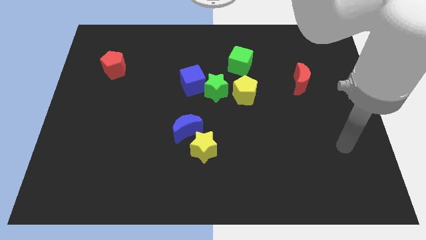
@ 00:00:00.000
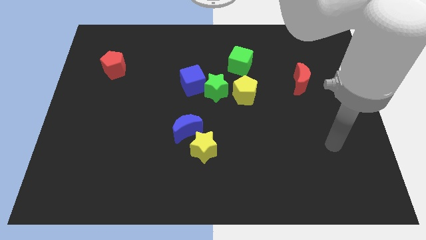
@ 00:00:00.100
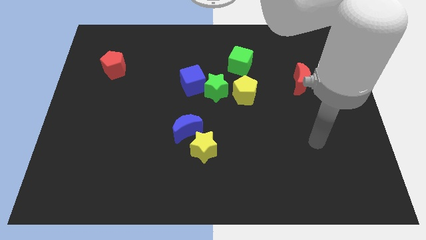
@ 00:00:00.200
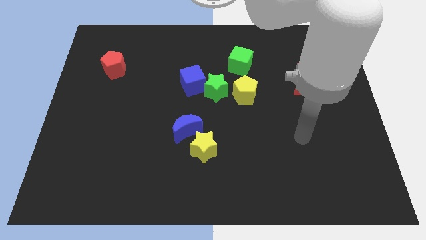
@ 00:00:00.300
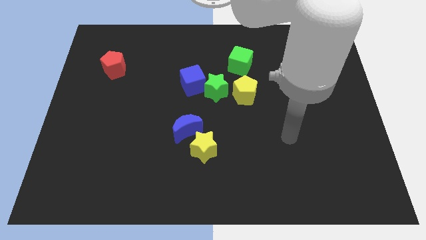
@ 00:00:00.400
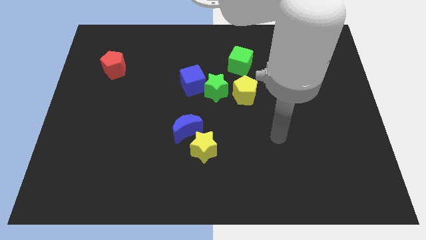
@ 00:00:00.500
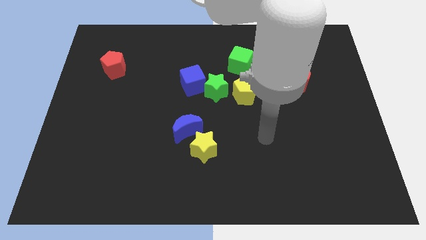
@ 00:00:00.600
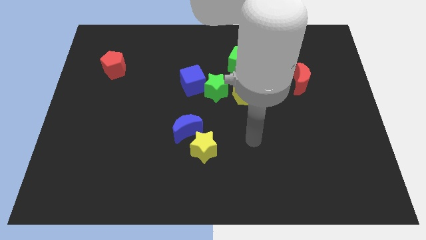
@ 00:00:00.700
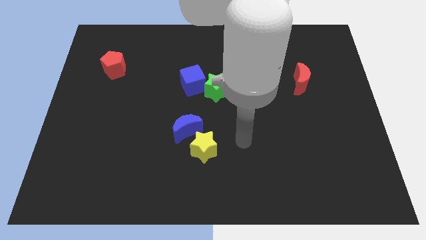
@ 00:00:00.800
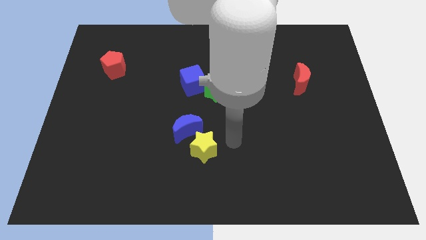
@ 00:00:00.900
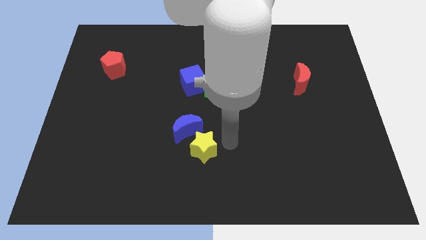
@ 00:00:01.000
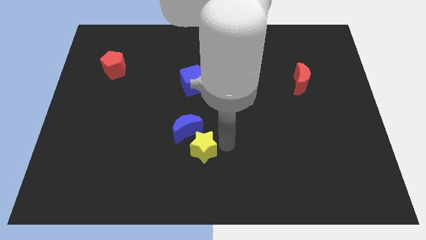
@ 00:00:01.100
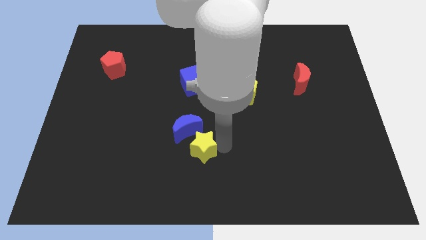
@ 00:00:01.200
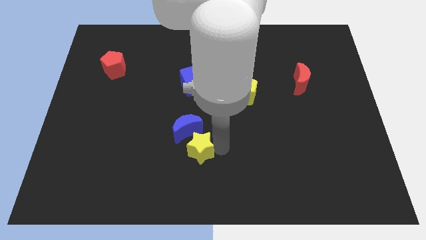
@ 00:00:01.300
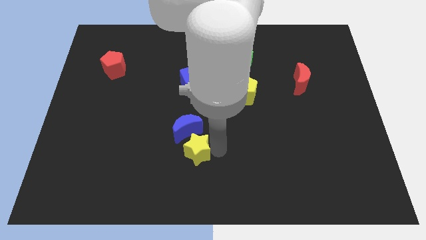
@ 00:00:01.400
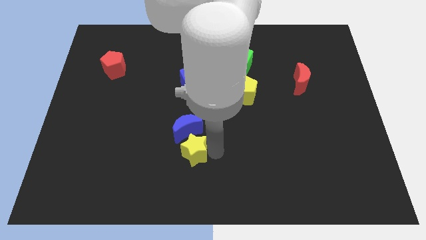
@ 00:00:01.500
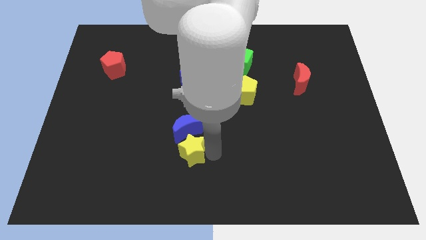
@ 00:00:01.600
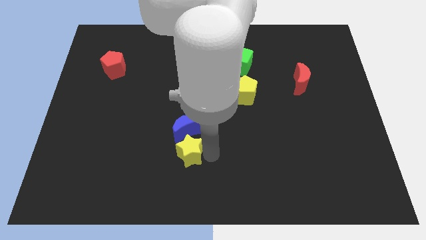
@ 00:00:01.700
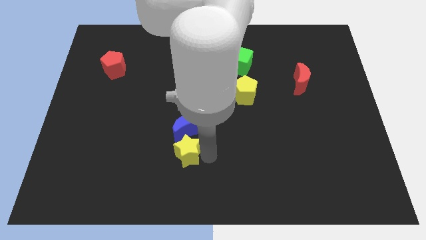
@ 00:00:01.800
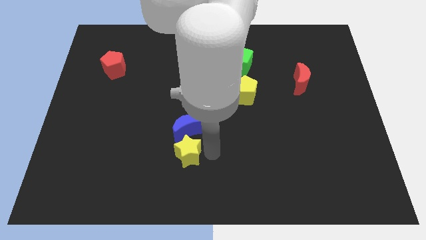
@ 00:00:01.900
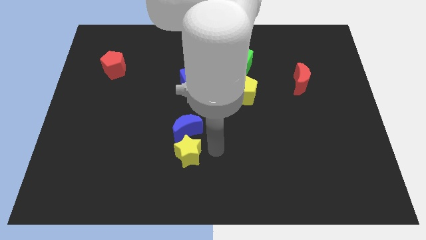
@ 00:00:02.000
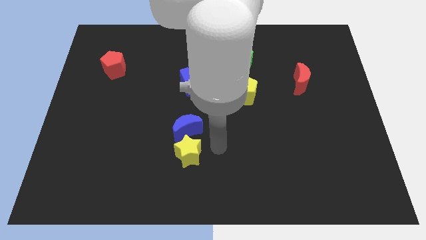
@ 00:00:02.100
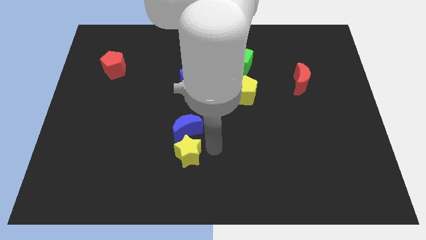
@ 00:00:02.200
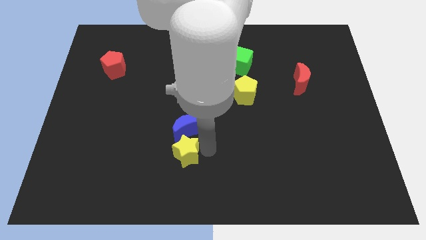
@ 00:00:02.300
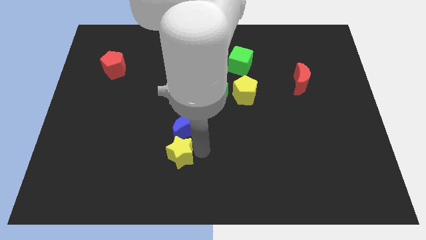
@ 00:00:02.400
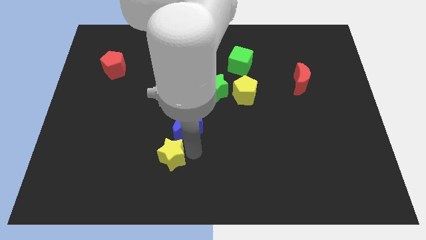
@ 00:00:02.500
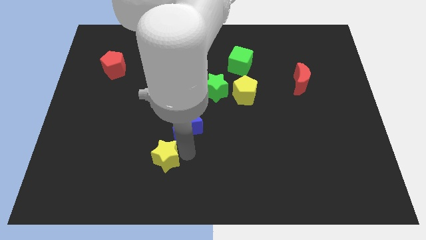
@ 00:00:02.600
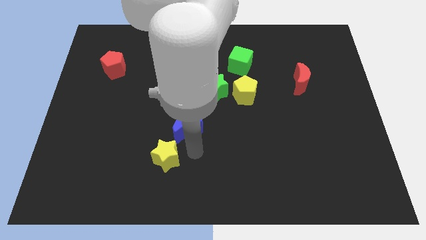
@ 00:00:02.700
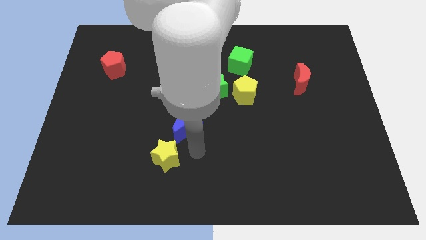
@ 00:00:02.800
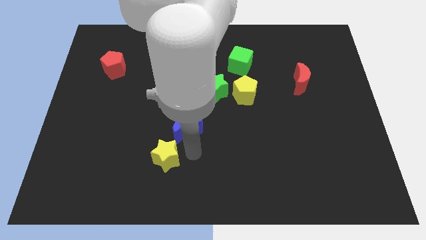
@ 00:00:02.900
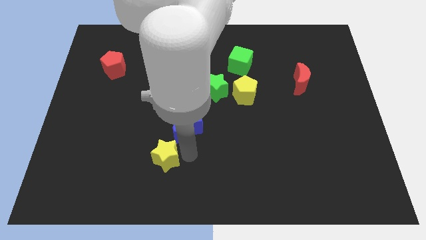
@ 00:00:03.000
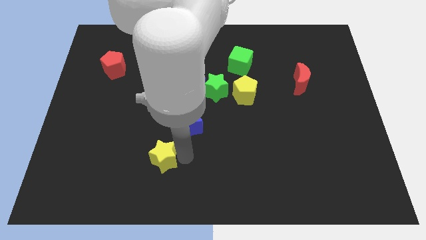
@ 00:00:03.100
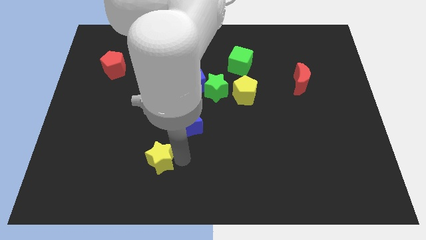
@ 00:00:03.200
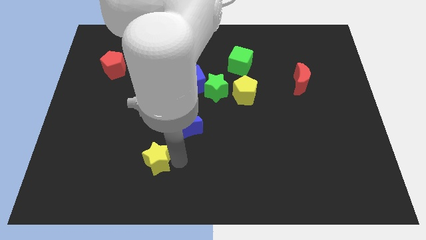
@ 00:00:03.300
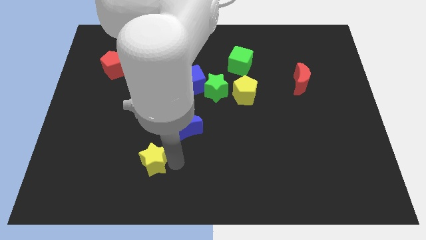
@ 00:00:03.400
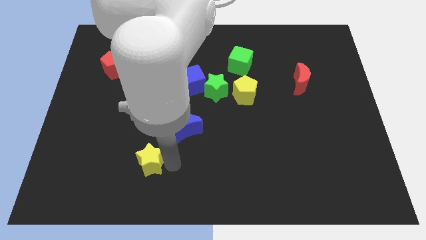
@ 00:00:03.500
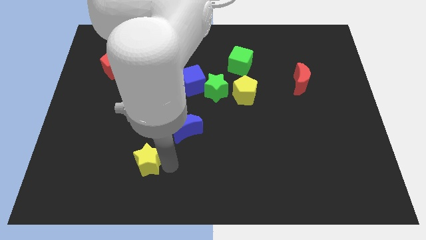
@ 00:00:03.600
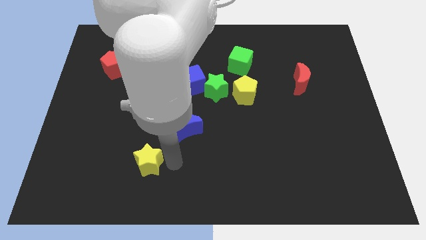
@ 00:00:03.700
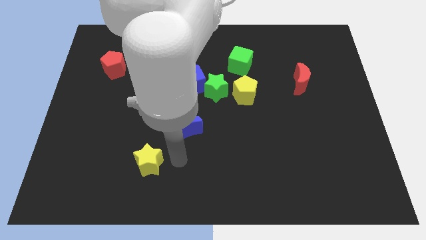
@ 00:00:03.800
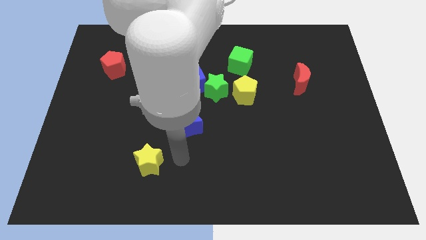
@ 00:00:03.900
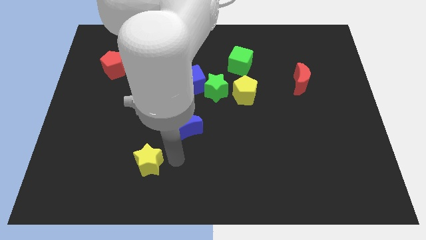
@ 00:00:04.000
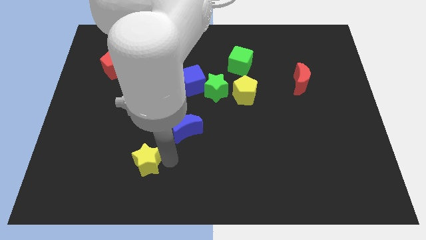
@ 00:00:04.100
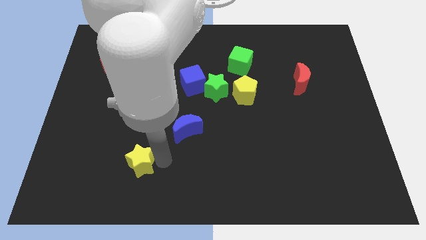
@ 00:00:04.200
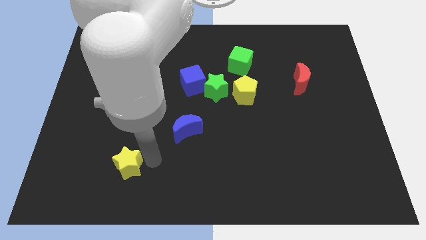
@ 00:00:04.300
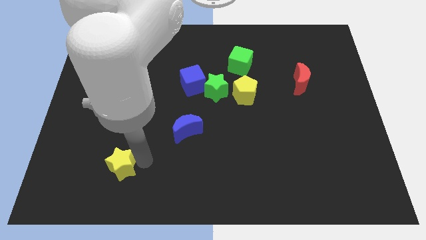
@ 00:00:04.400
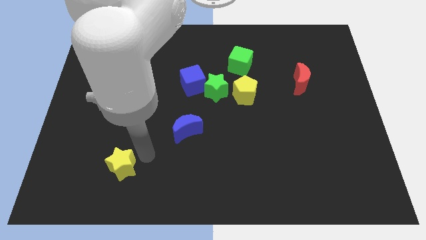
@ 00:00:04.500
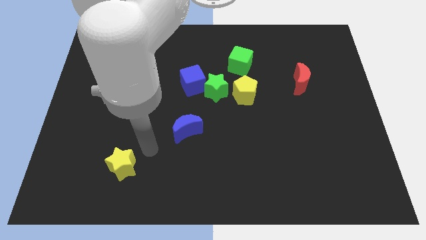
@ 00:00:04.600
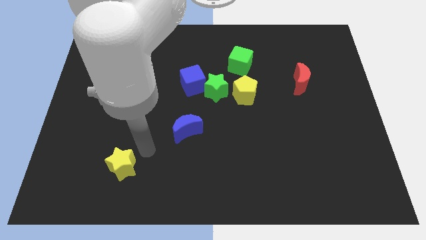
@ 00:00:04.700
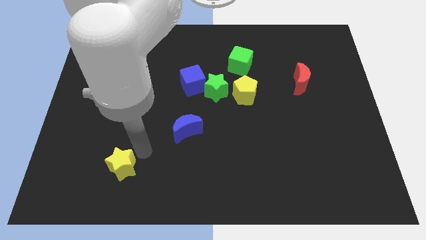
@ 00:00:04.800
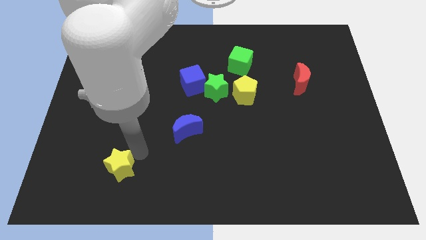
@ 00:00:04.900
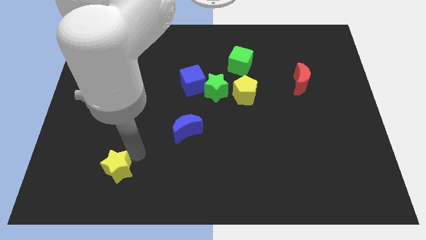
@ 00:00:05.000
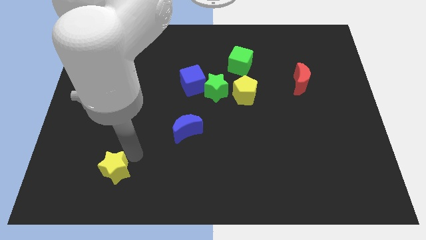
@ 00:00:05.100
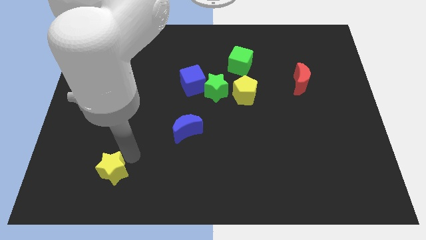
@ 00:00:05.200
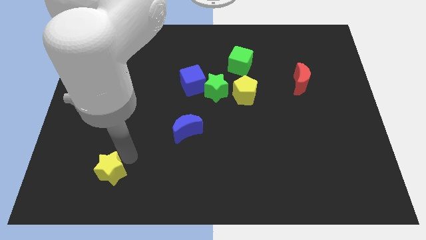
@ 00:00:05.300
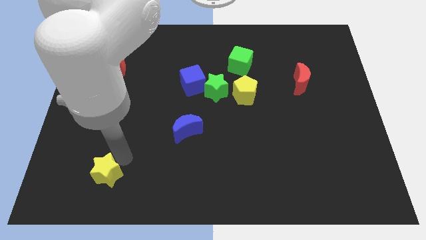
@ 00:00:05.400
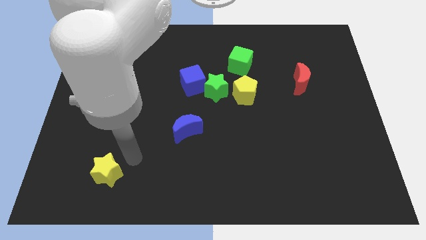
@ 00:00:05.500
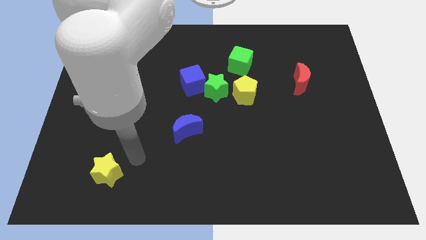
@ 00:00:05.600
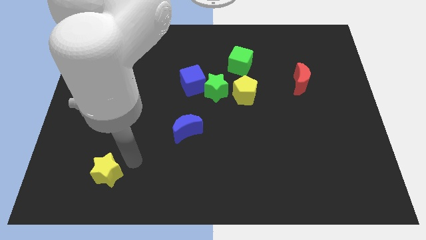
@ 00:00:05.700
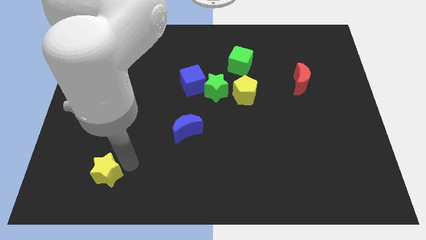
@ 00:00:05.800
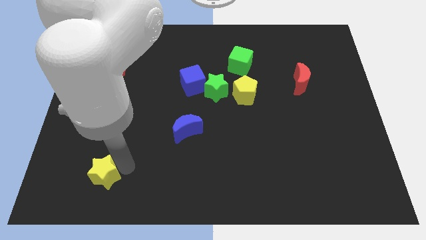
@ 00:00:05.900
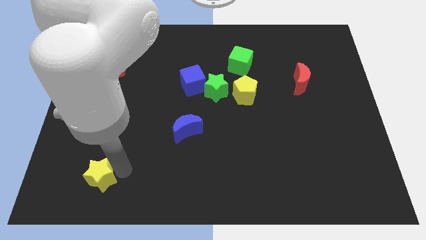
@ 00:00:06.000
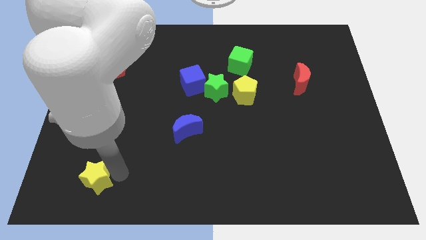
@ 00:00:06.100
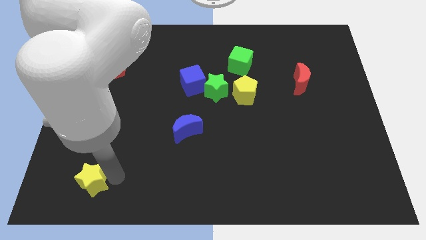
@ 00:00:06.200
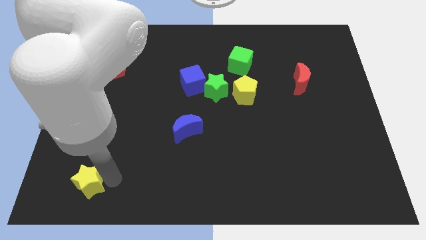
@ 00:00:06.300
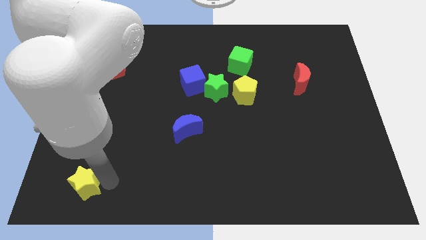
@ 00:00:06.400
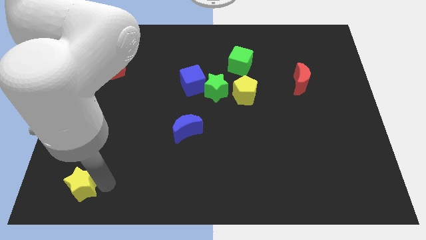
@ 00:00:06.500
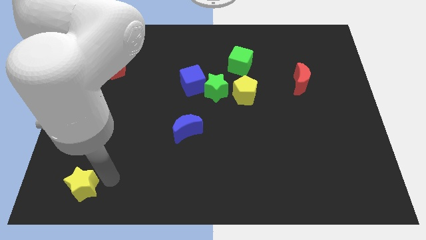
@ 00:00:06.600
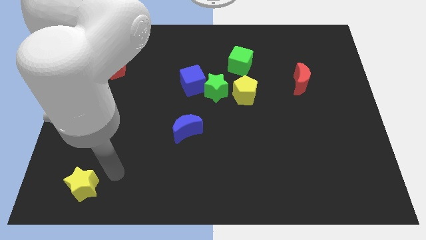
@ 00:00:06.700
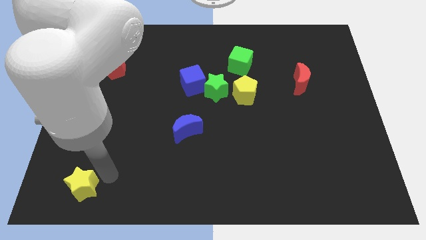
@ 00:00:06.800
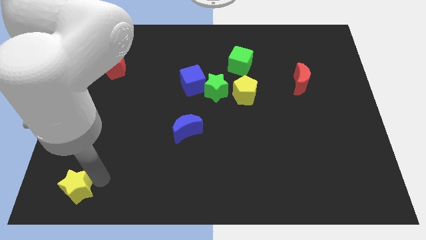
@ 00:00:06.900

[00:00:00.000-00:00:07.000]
put the yellow star to the lower left corner
